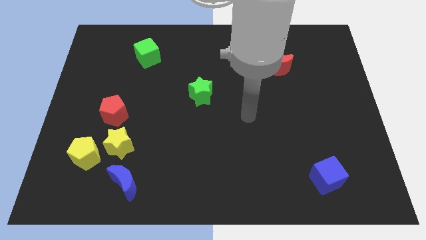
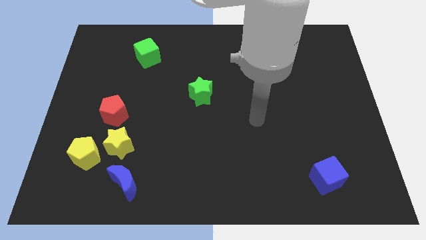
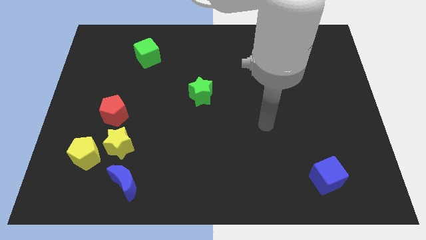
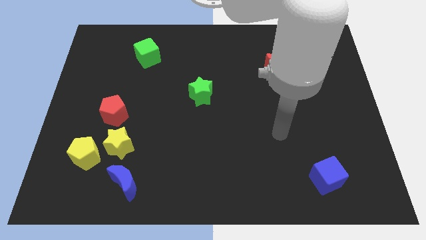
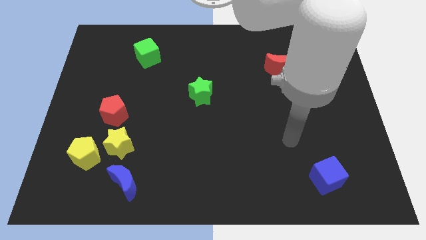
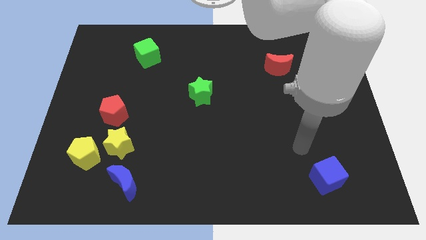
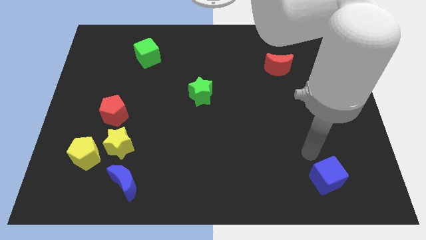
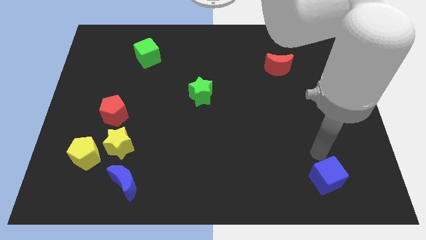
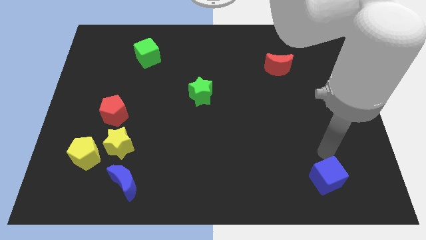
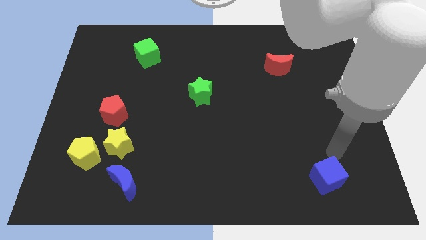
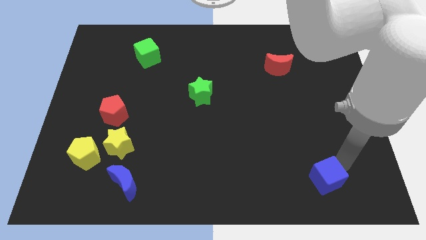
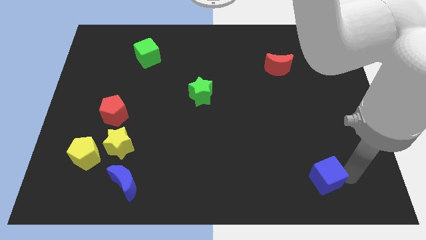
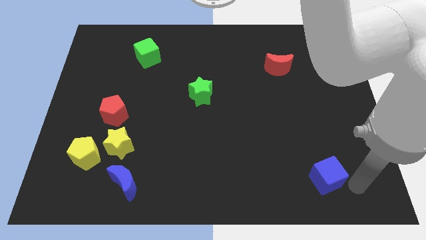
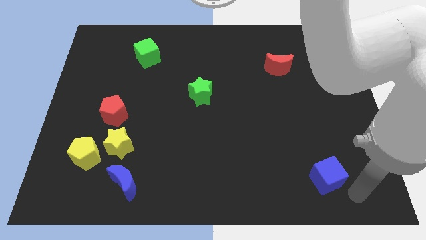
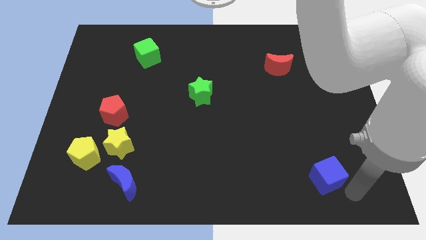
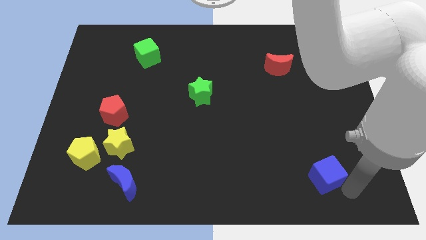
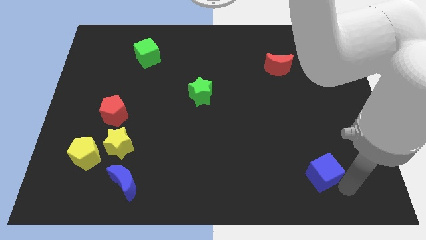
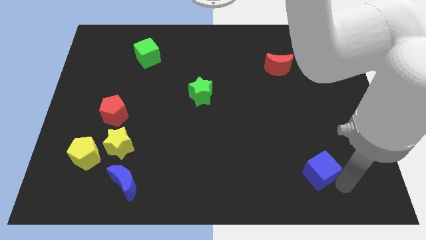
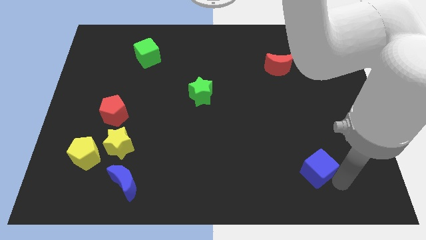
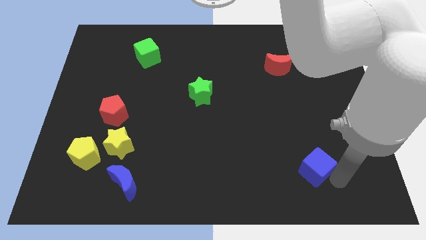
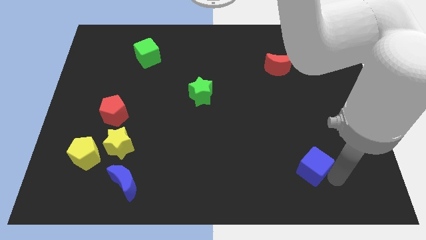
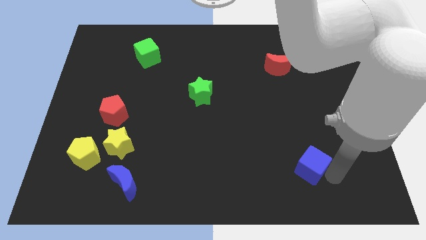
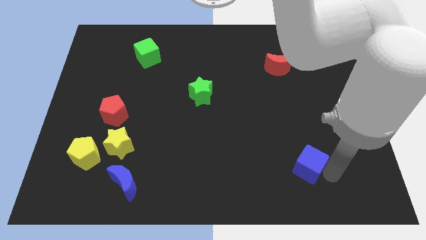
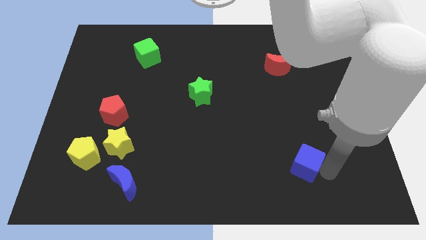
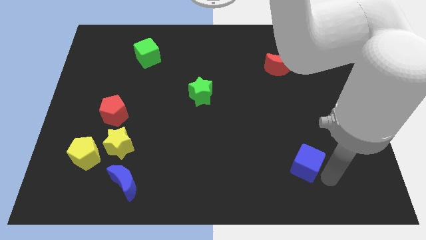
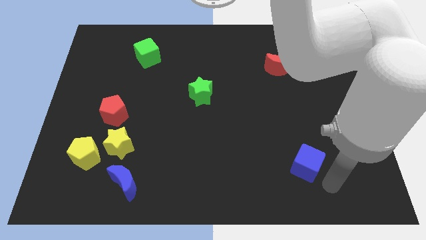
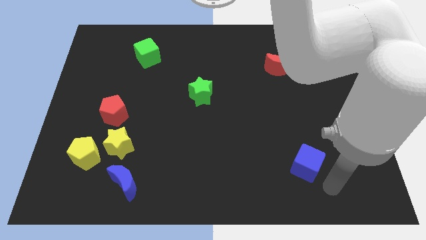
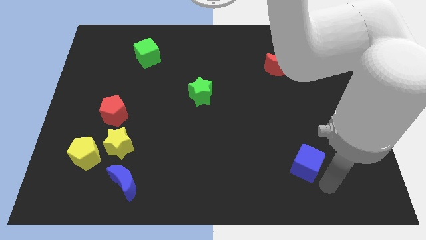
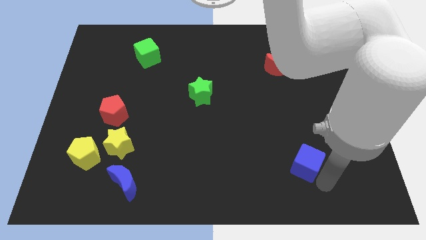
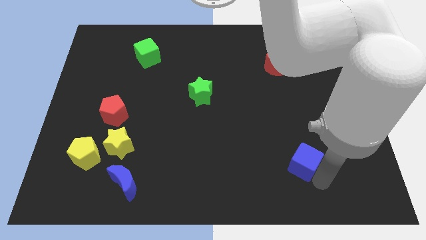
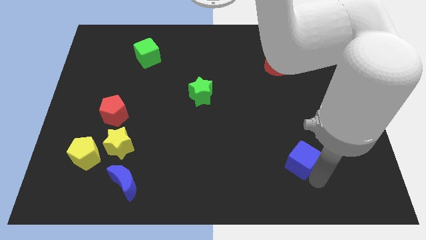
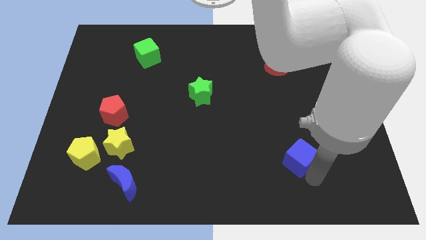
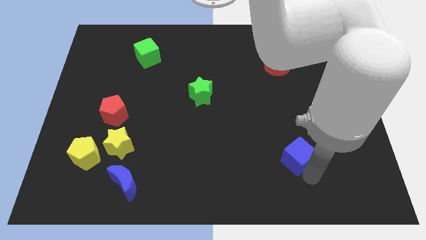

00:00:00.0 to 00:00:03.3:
slightly slide the blue cube up and left

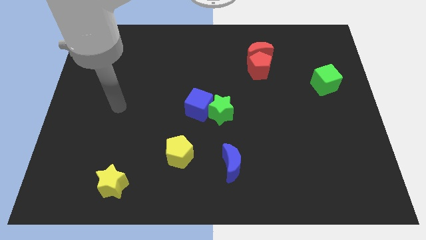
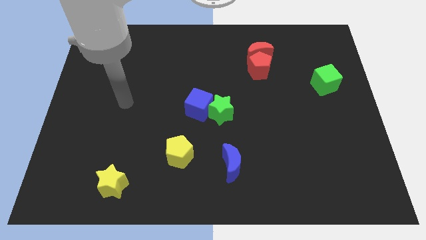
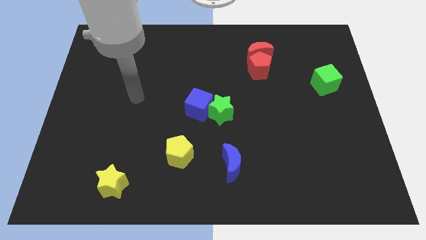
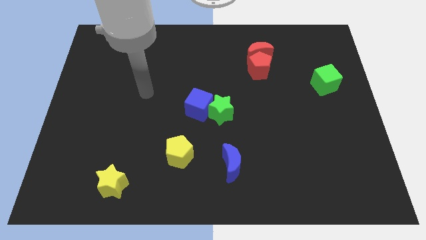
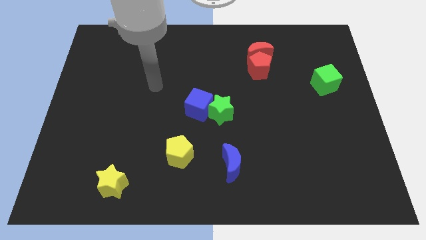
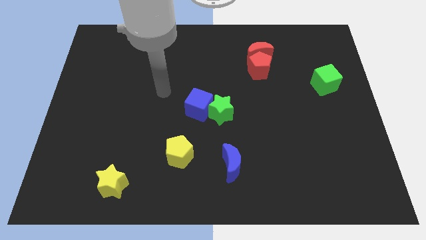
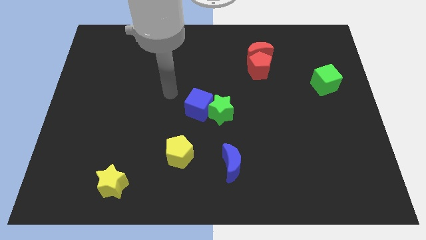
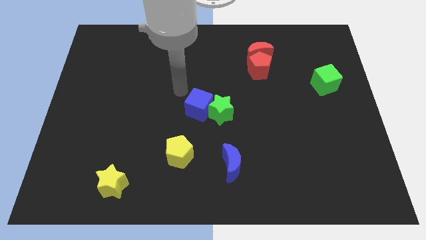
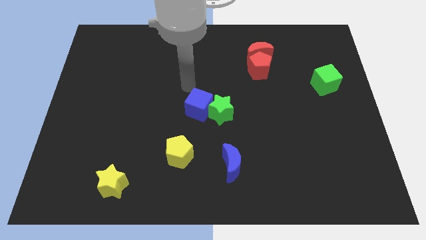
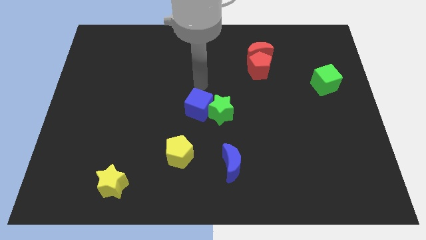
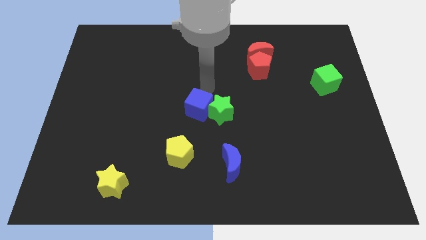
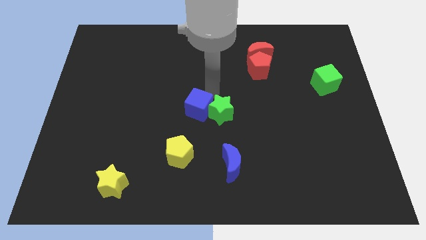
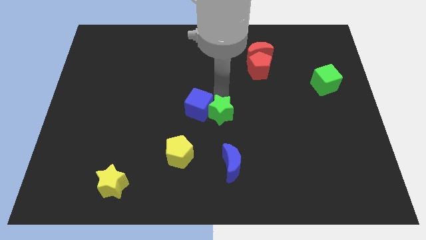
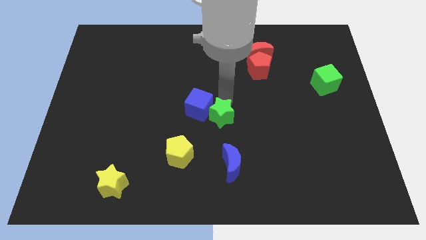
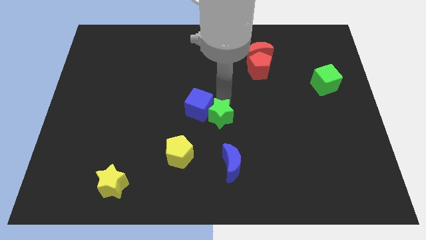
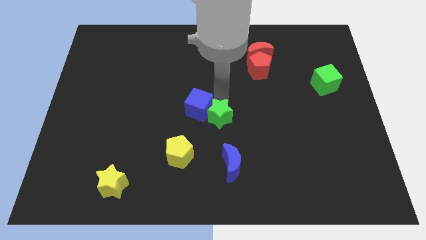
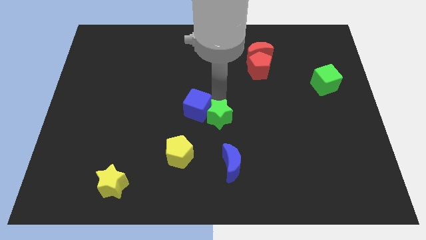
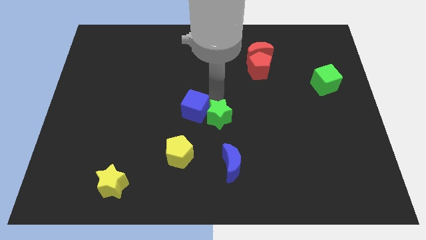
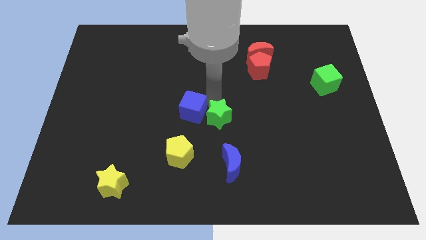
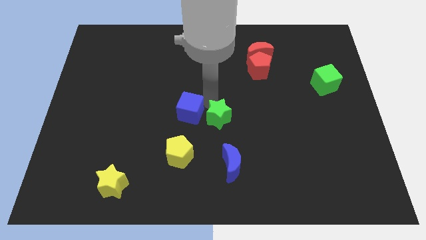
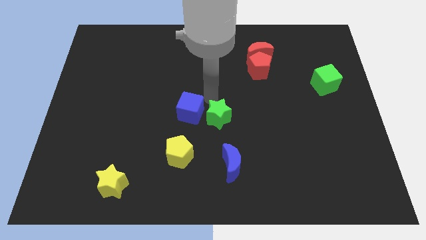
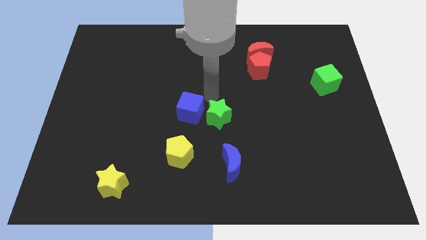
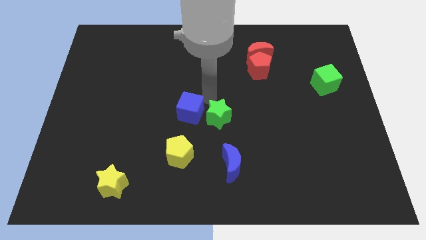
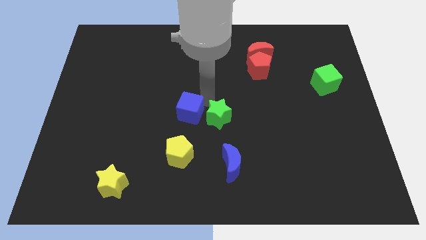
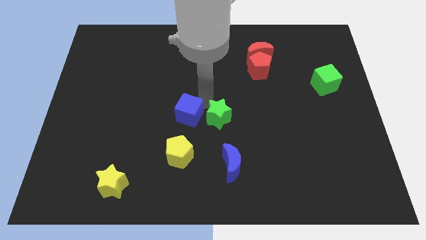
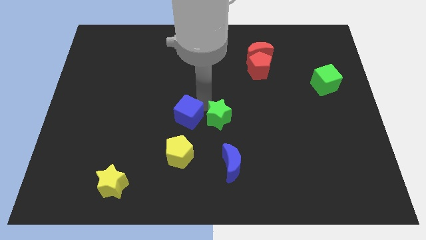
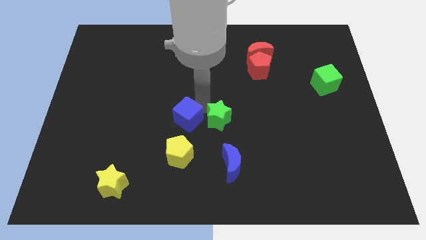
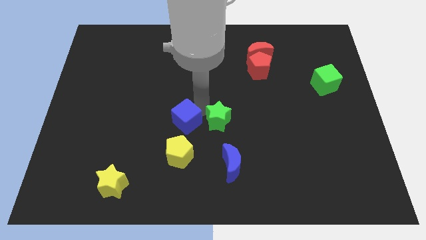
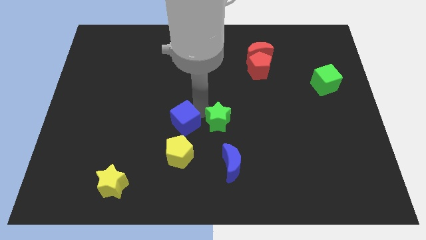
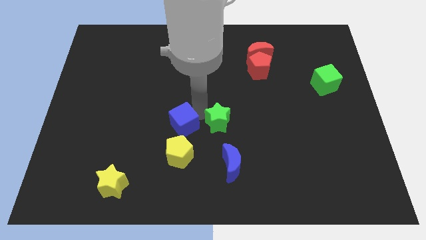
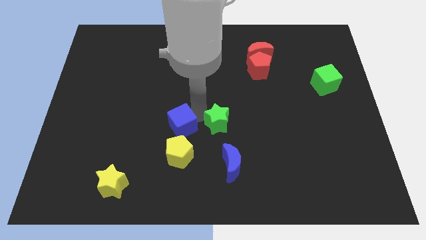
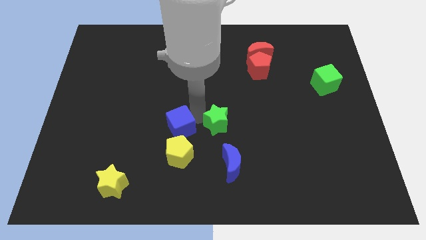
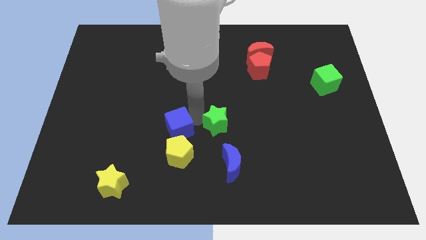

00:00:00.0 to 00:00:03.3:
move the blue cube somewhat diagonally downwards and to the left

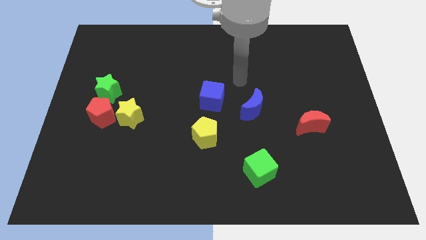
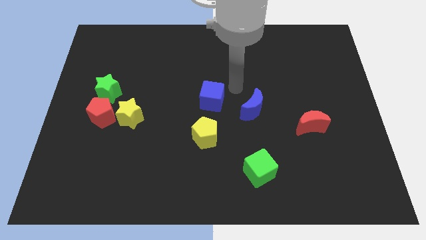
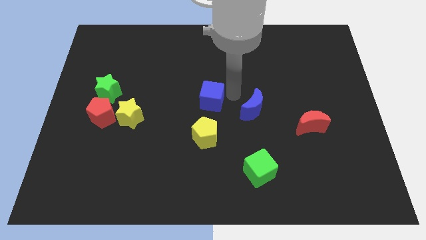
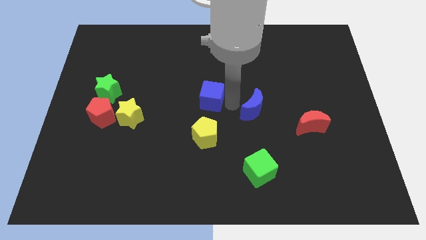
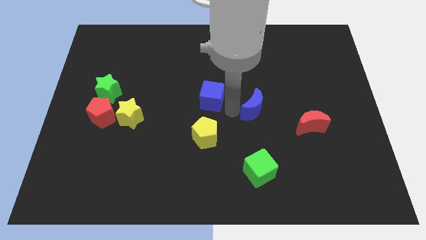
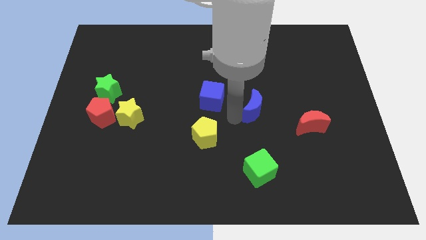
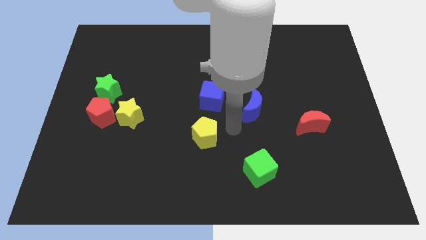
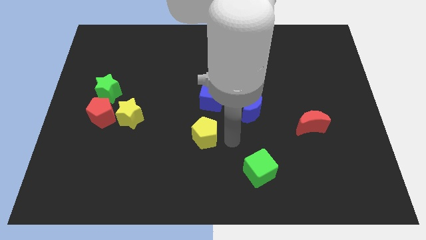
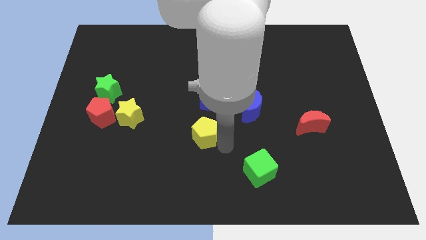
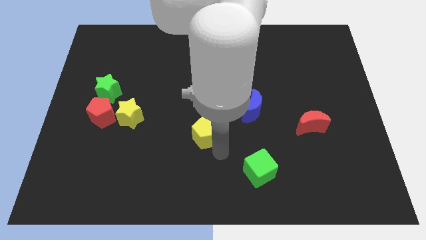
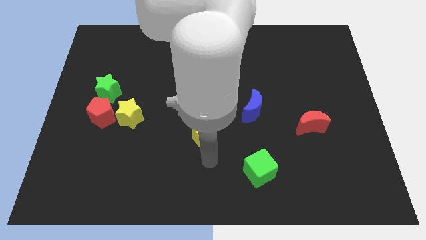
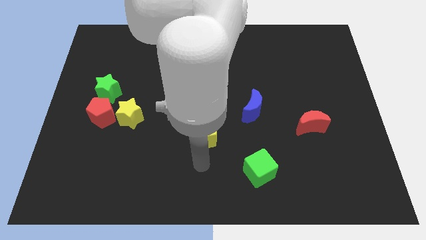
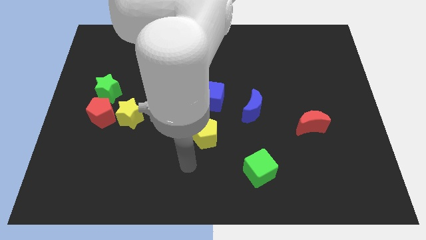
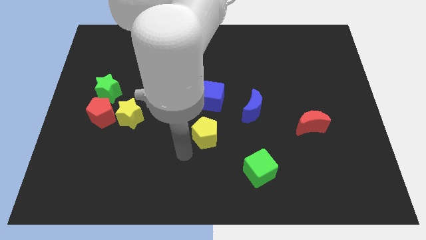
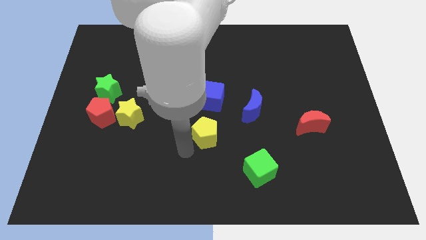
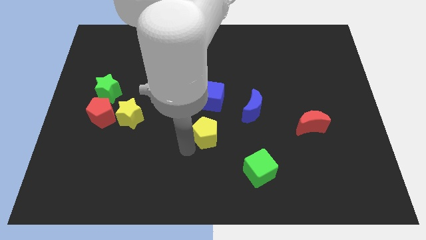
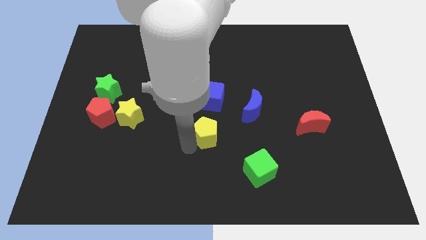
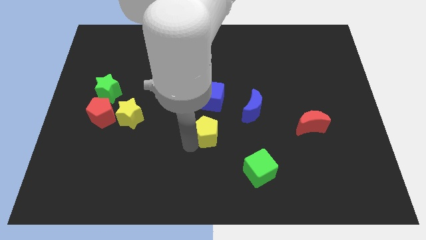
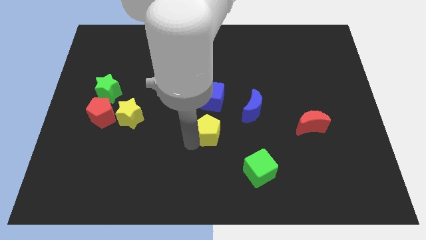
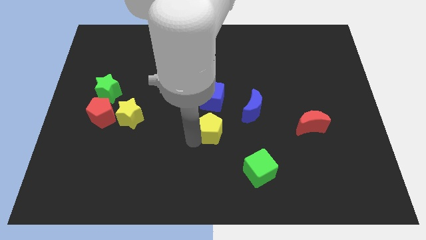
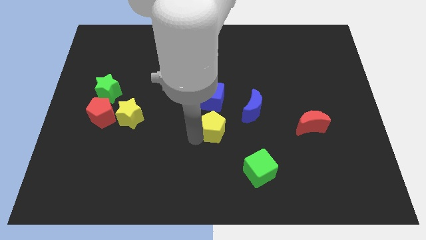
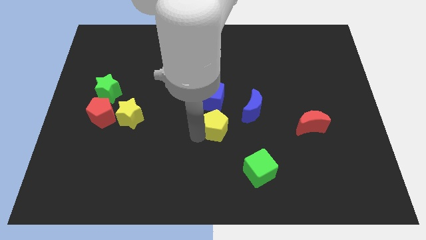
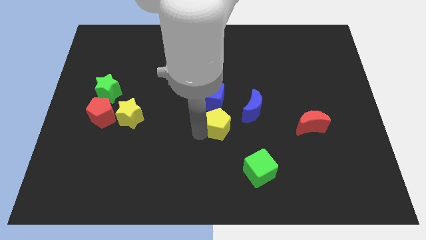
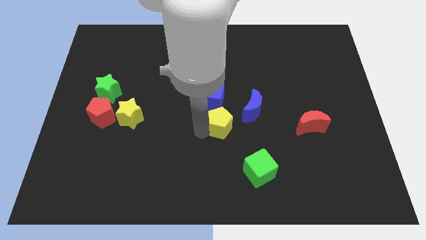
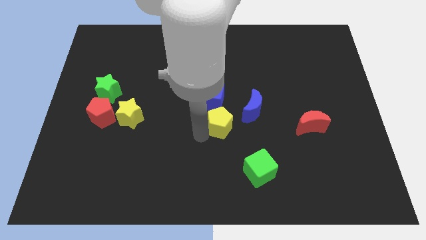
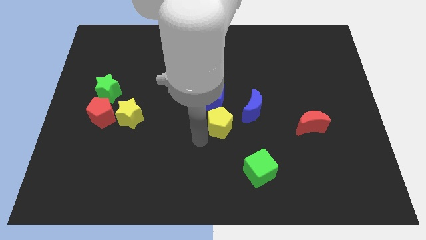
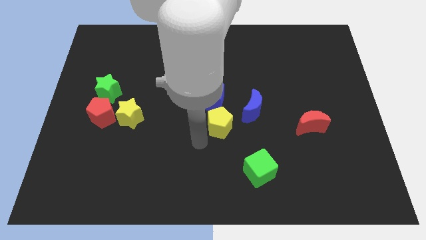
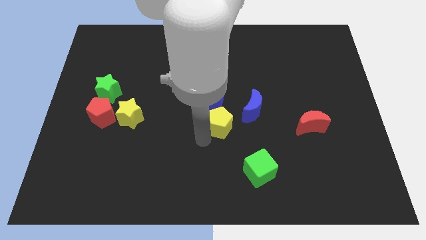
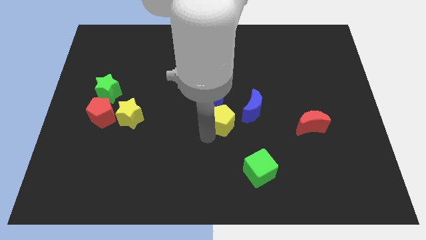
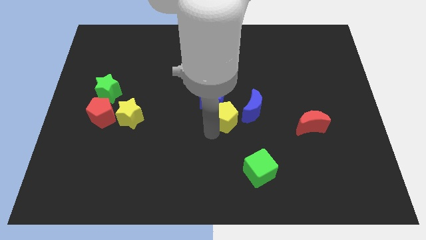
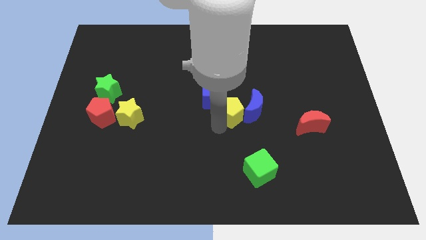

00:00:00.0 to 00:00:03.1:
slide the yellow pentagon slightly upwards and right diagonally
